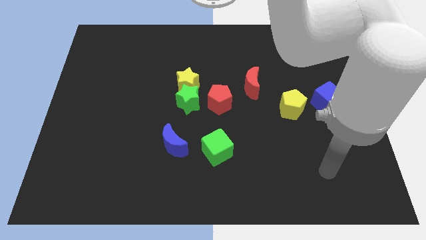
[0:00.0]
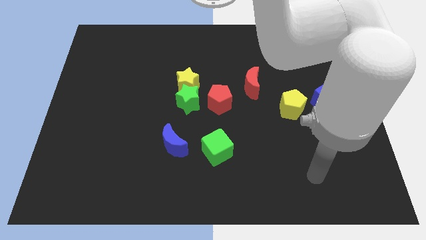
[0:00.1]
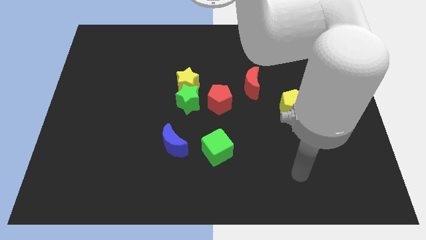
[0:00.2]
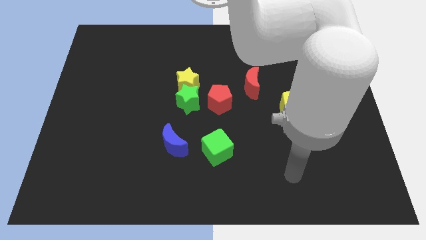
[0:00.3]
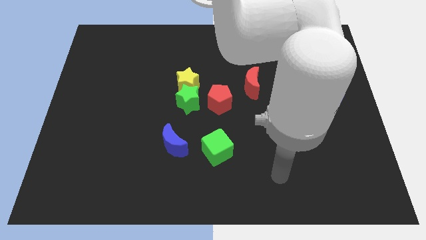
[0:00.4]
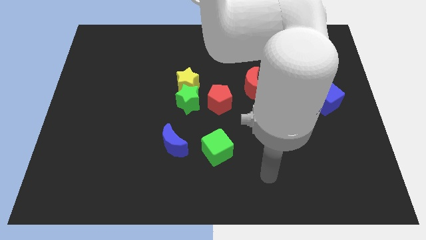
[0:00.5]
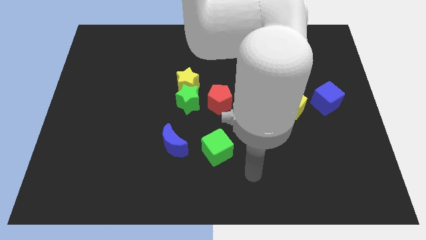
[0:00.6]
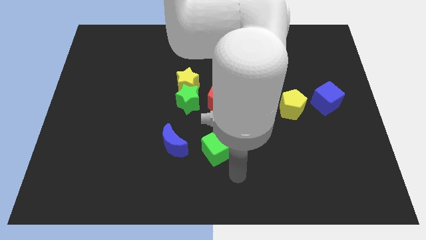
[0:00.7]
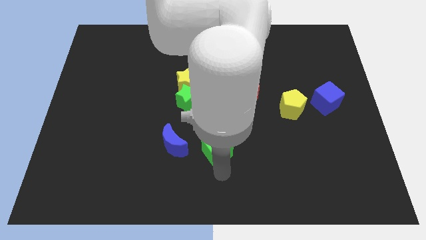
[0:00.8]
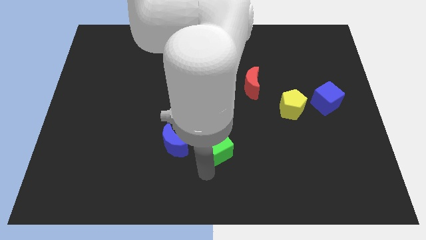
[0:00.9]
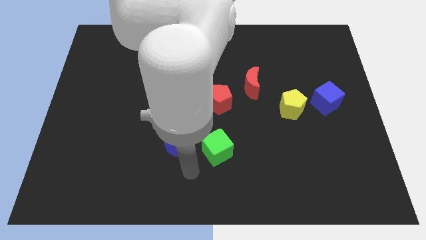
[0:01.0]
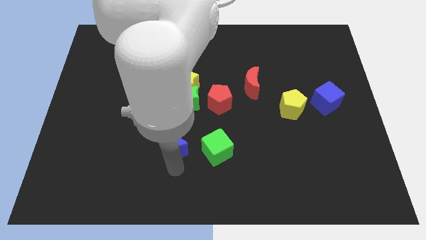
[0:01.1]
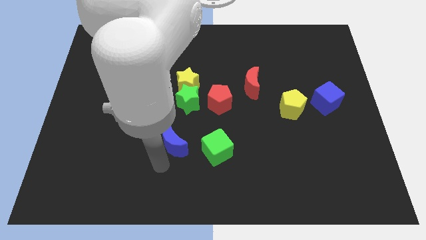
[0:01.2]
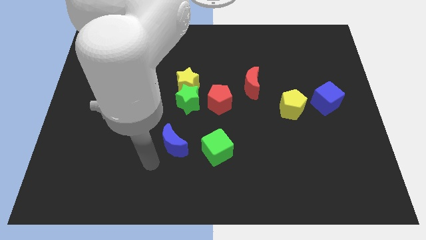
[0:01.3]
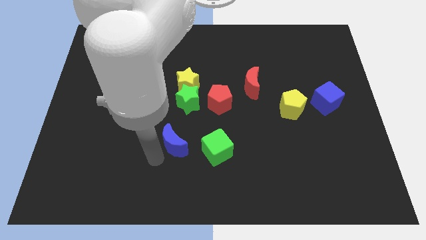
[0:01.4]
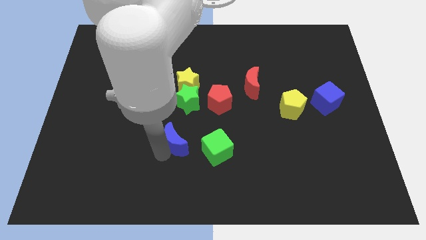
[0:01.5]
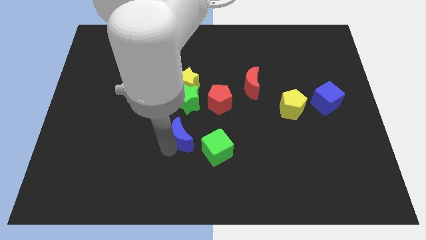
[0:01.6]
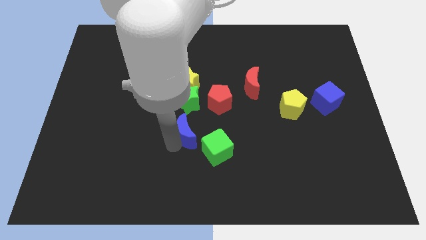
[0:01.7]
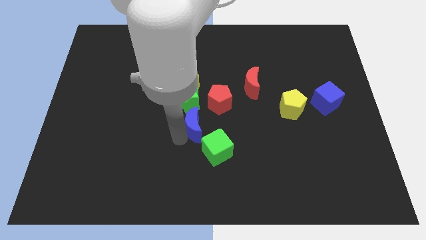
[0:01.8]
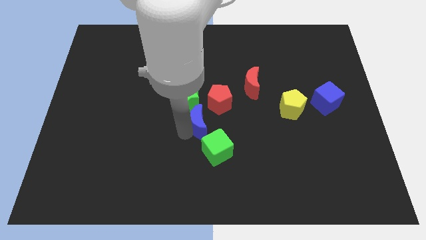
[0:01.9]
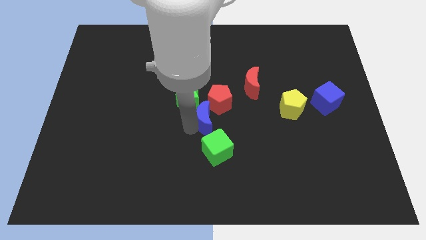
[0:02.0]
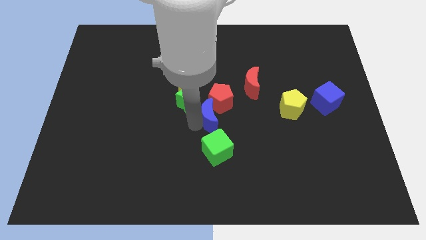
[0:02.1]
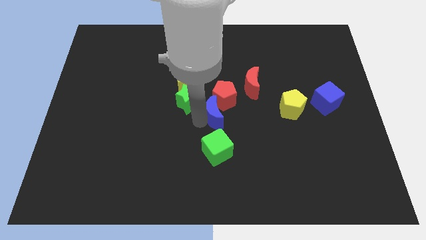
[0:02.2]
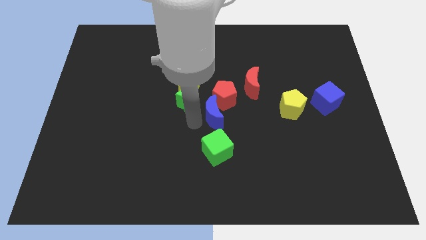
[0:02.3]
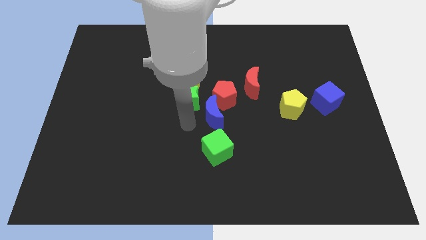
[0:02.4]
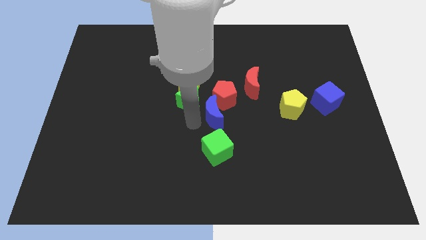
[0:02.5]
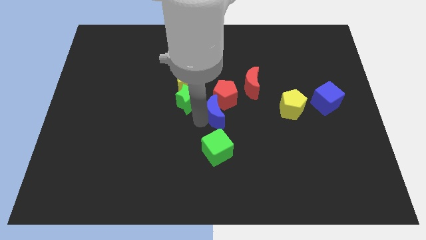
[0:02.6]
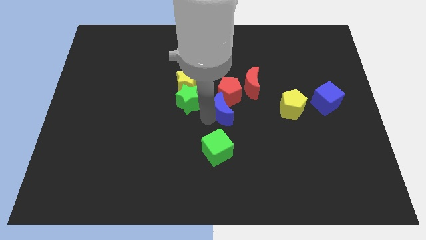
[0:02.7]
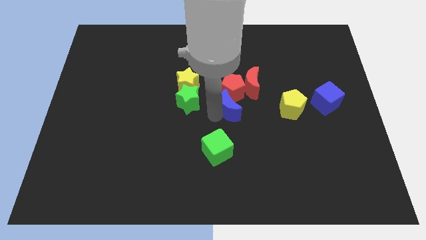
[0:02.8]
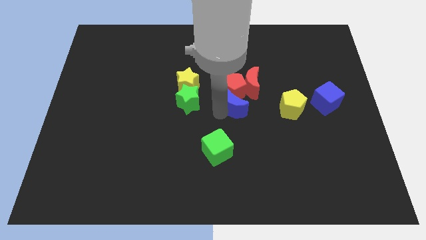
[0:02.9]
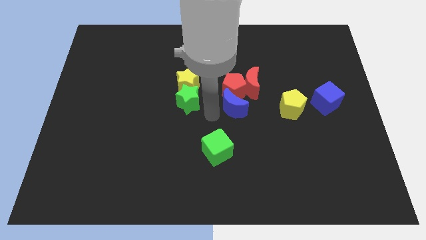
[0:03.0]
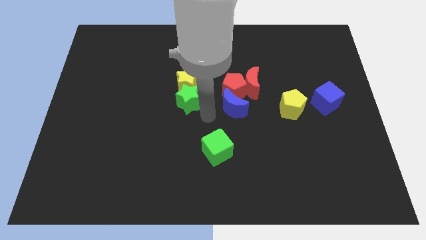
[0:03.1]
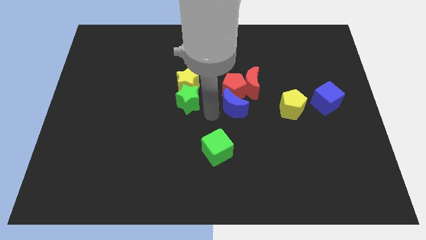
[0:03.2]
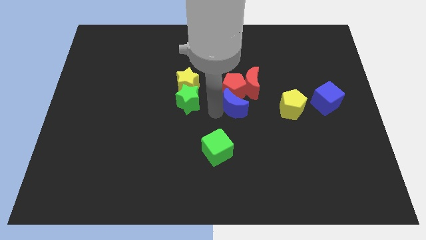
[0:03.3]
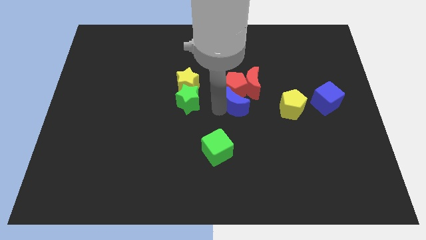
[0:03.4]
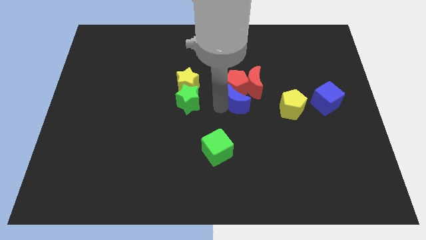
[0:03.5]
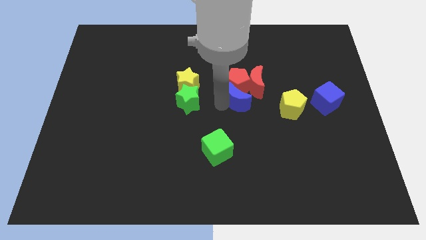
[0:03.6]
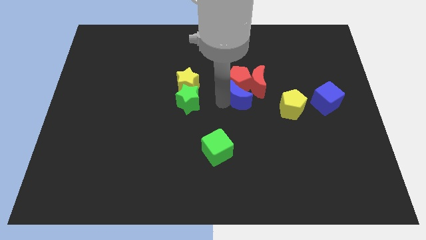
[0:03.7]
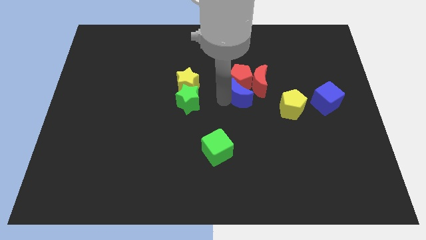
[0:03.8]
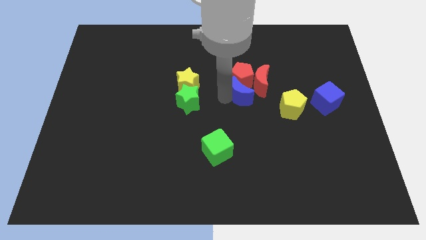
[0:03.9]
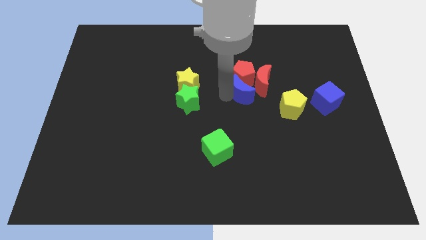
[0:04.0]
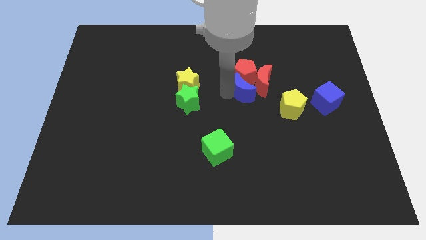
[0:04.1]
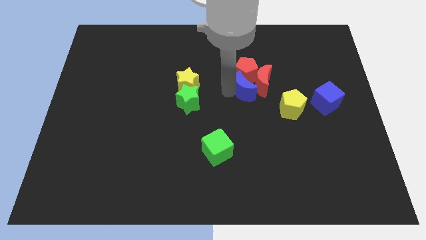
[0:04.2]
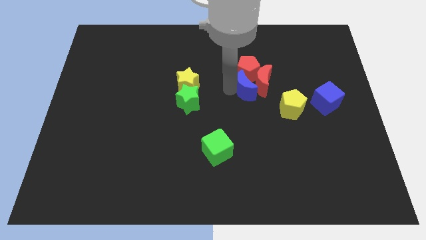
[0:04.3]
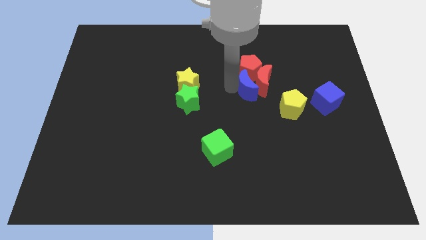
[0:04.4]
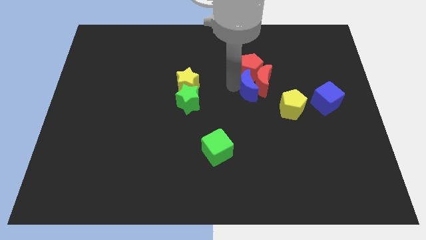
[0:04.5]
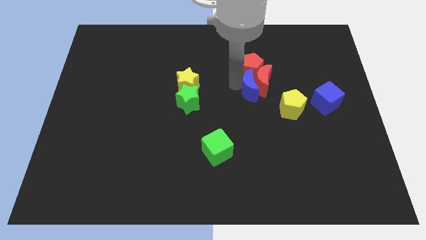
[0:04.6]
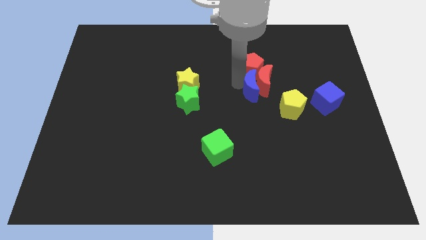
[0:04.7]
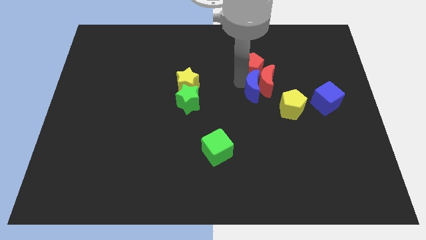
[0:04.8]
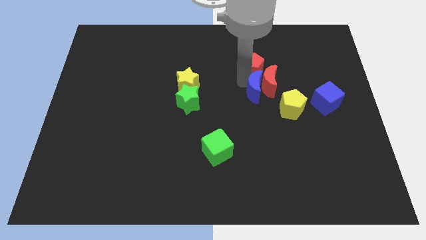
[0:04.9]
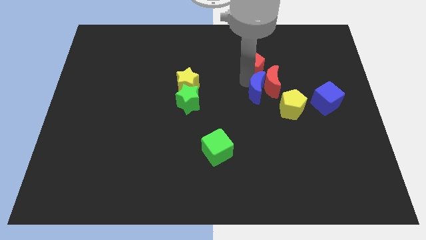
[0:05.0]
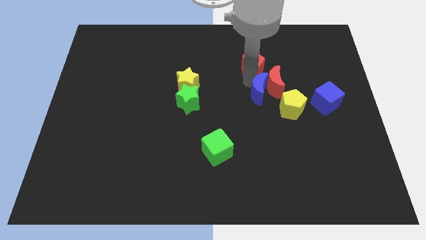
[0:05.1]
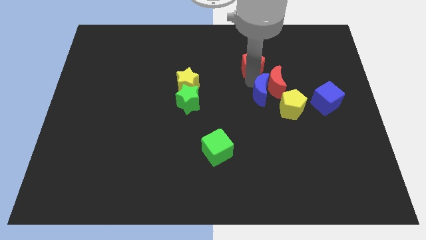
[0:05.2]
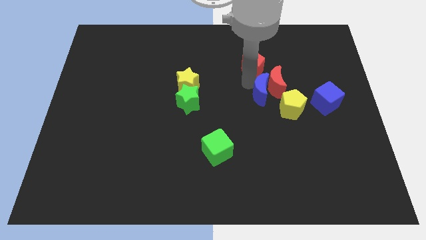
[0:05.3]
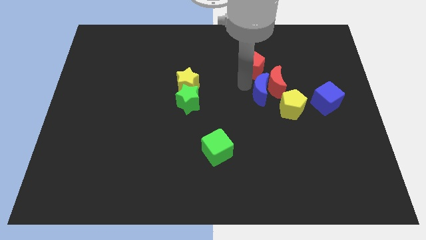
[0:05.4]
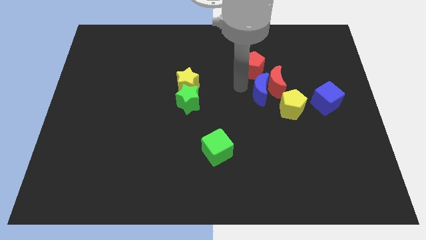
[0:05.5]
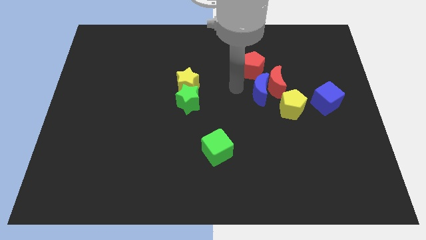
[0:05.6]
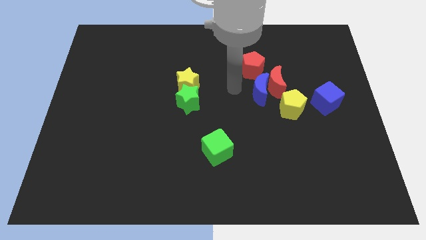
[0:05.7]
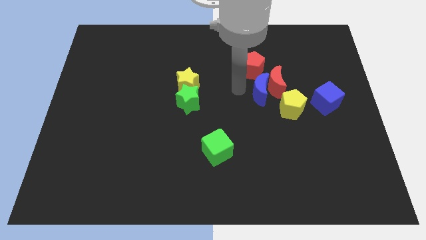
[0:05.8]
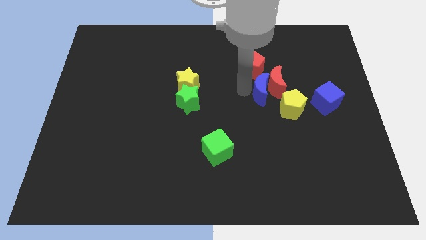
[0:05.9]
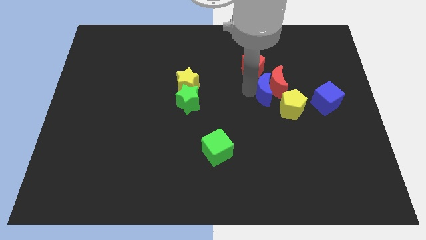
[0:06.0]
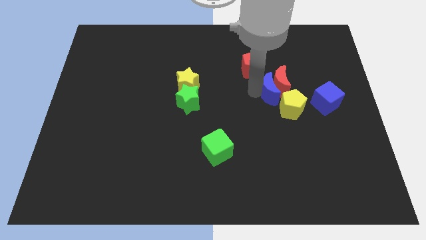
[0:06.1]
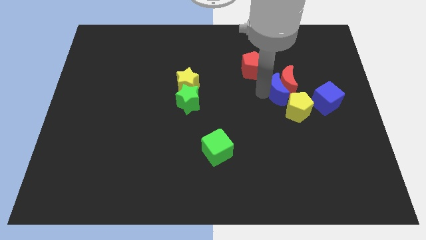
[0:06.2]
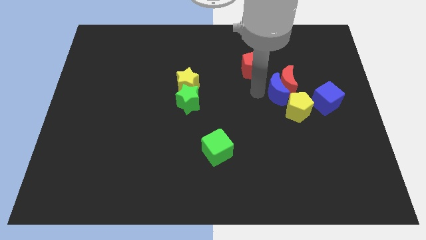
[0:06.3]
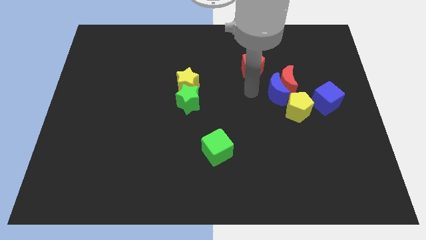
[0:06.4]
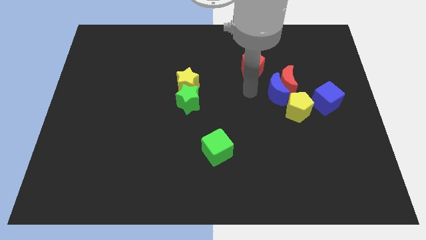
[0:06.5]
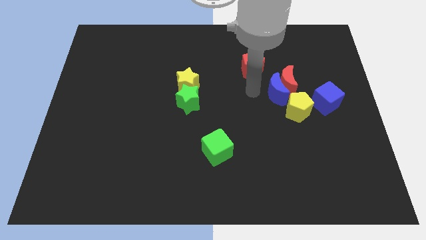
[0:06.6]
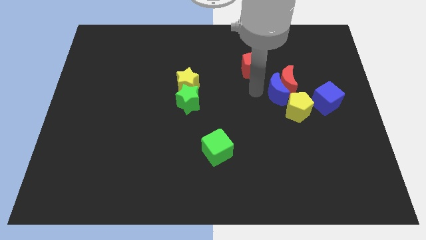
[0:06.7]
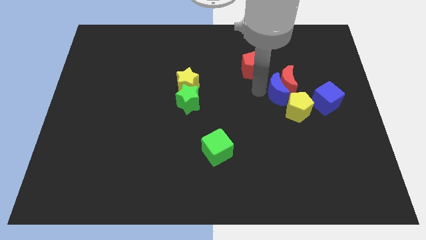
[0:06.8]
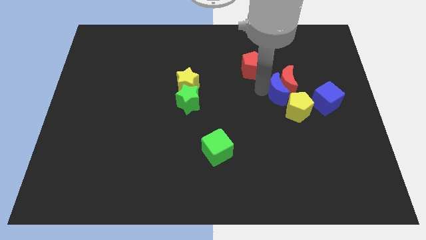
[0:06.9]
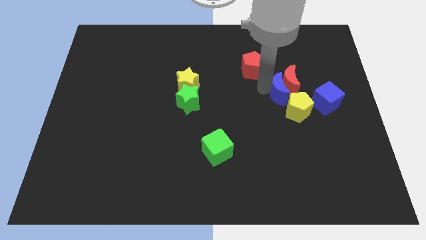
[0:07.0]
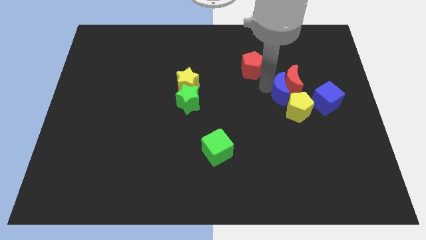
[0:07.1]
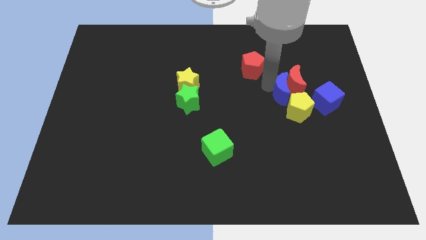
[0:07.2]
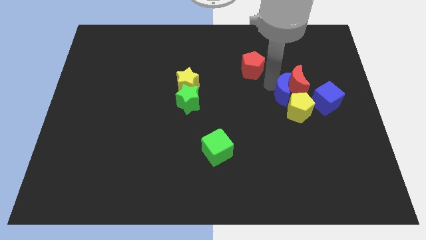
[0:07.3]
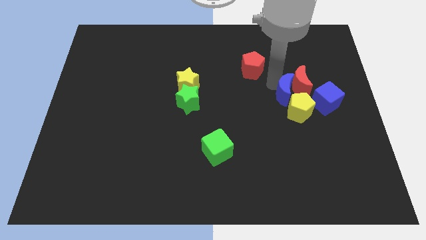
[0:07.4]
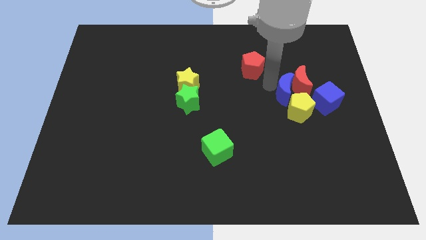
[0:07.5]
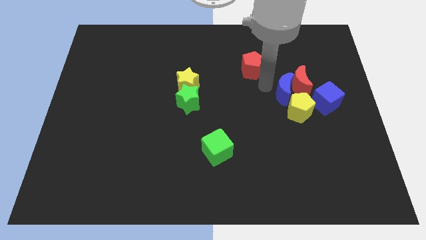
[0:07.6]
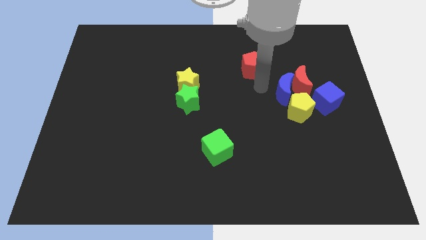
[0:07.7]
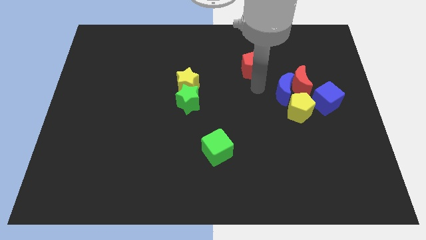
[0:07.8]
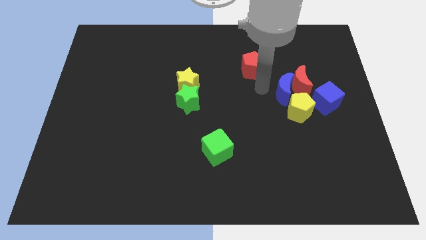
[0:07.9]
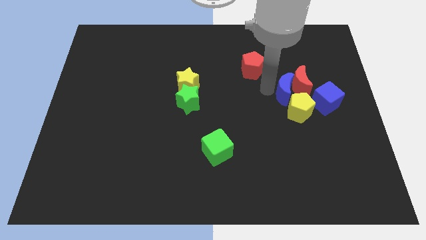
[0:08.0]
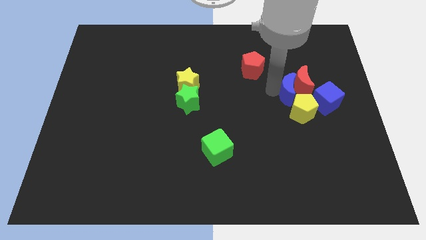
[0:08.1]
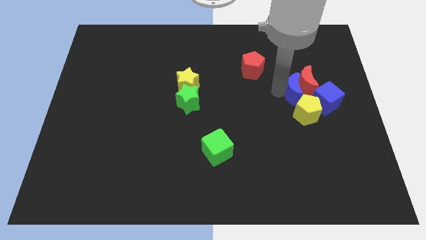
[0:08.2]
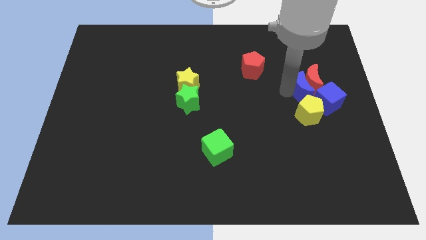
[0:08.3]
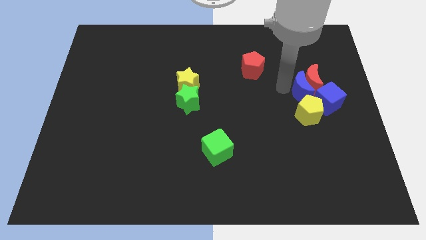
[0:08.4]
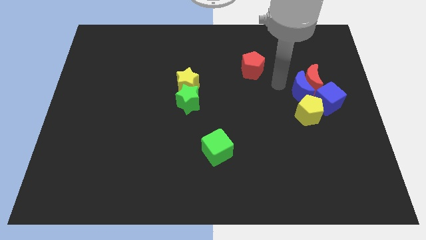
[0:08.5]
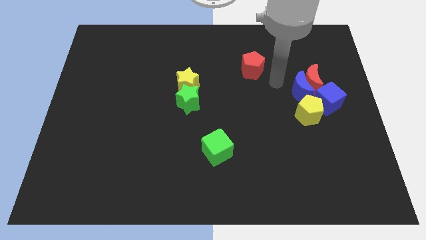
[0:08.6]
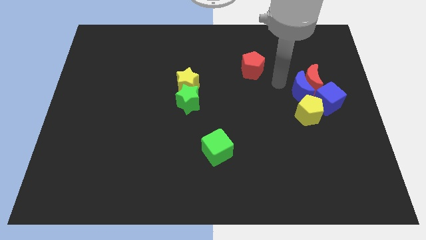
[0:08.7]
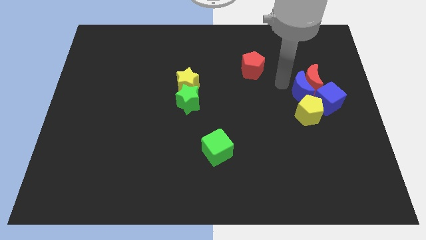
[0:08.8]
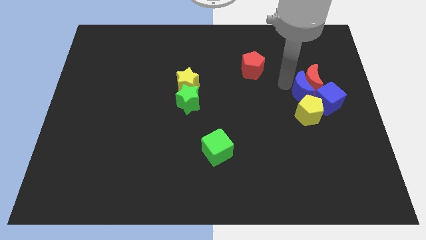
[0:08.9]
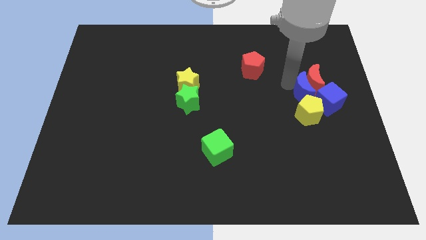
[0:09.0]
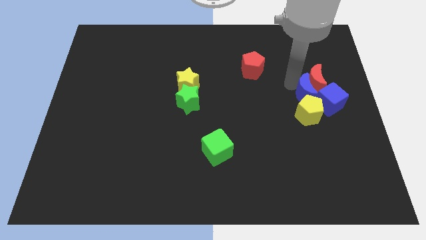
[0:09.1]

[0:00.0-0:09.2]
put the blue moon close to the blue cube
